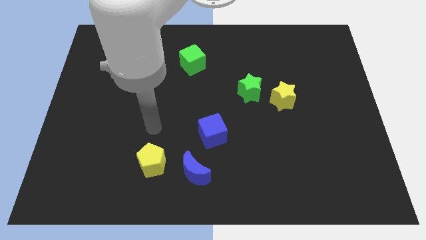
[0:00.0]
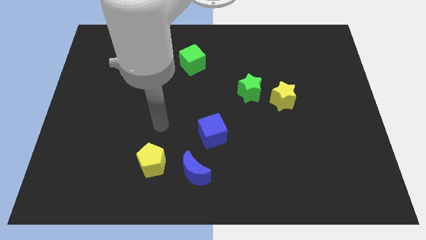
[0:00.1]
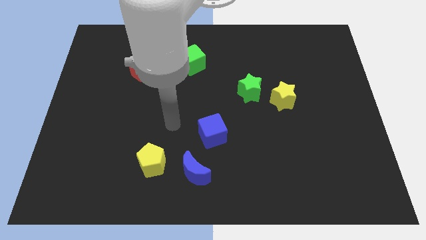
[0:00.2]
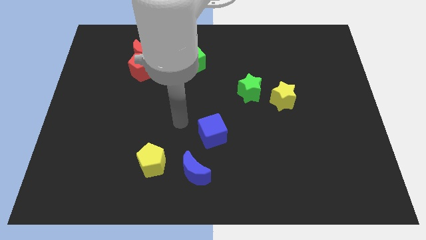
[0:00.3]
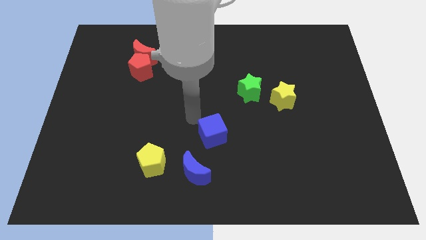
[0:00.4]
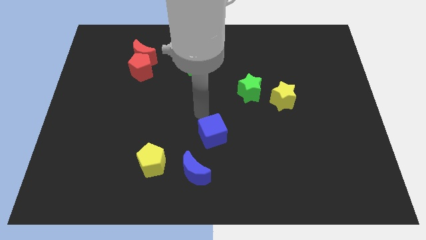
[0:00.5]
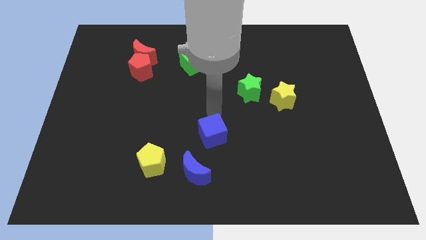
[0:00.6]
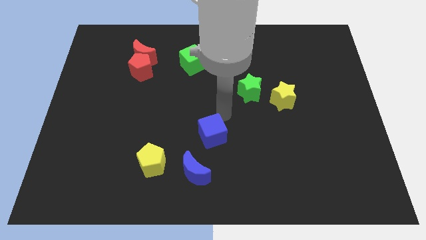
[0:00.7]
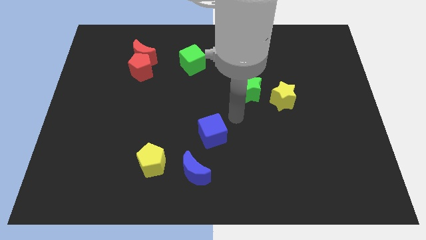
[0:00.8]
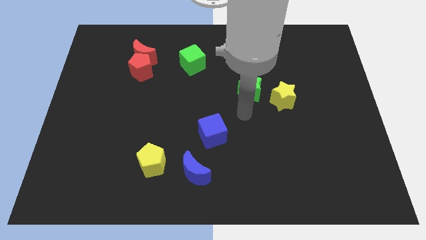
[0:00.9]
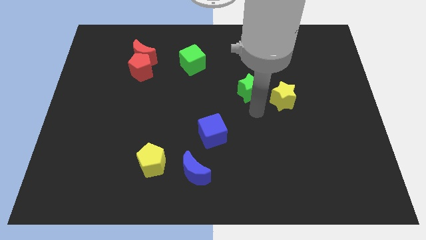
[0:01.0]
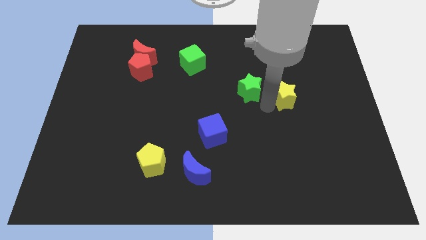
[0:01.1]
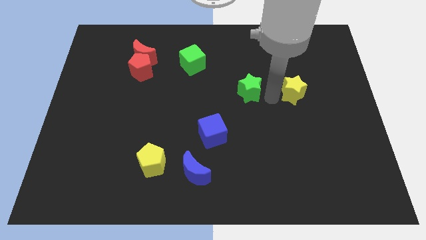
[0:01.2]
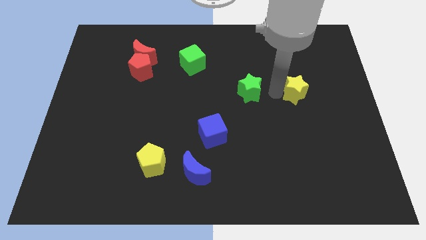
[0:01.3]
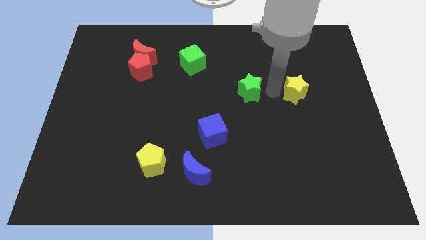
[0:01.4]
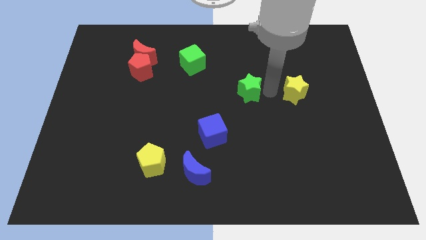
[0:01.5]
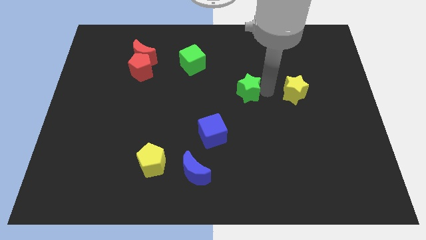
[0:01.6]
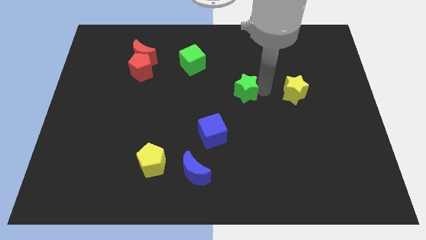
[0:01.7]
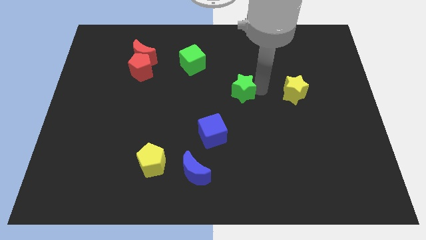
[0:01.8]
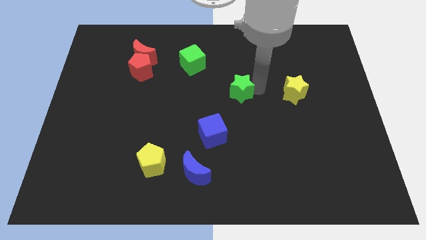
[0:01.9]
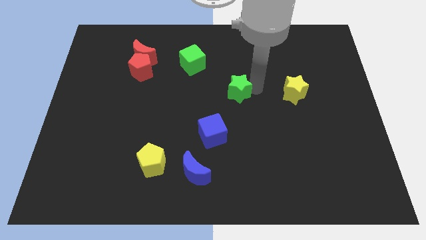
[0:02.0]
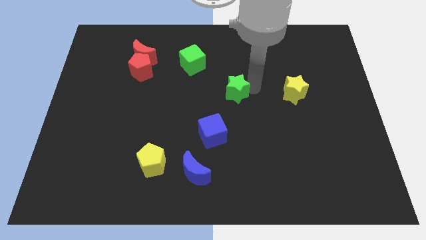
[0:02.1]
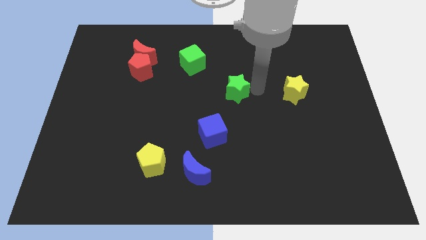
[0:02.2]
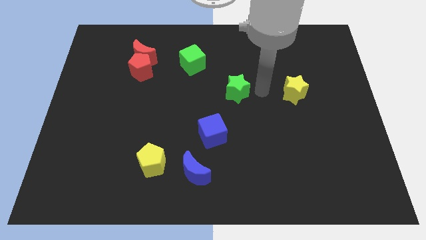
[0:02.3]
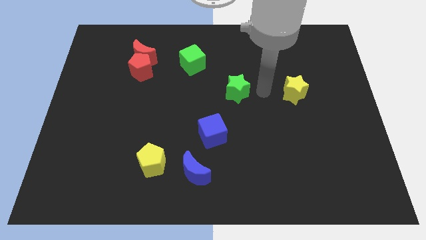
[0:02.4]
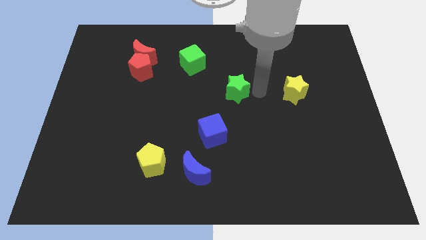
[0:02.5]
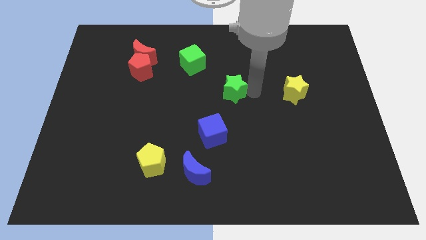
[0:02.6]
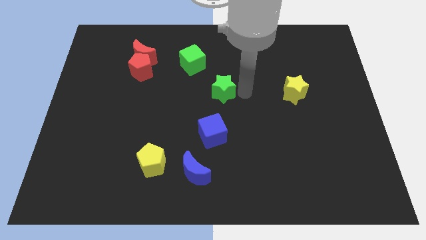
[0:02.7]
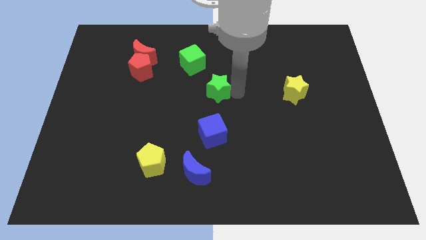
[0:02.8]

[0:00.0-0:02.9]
move the green star to the left somewhat

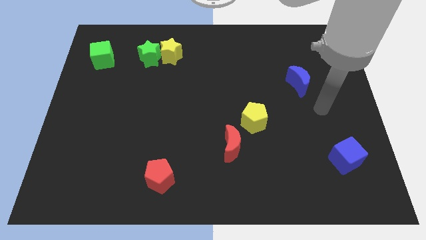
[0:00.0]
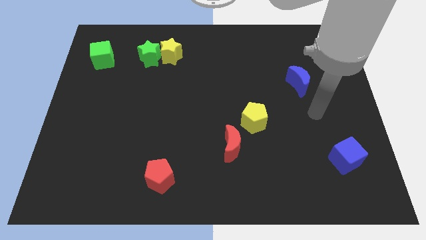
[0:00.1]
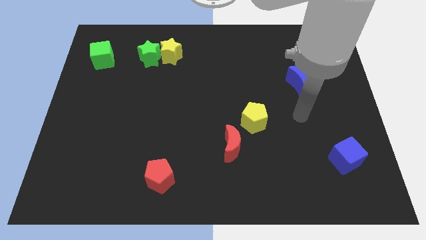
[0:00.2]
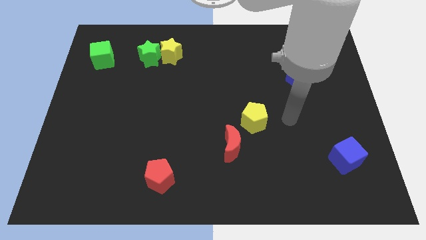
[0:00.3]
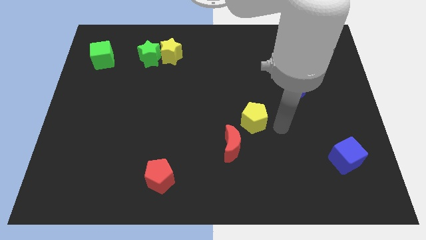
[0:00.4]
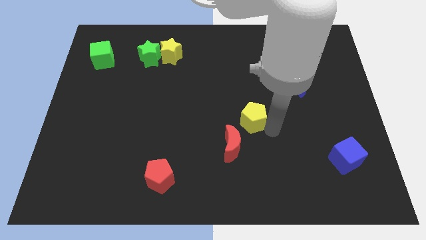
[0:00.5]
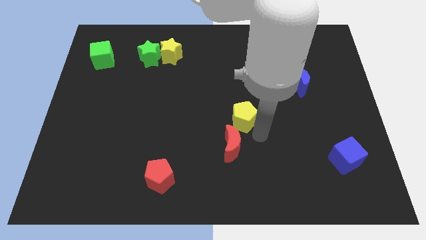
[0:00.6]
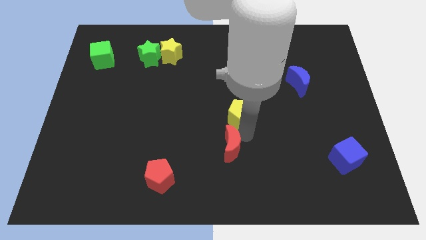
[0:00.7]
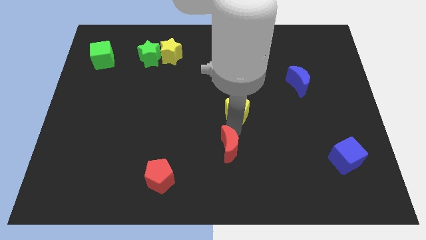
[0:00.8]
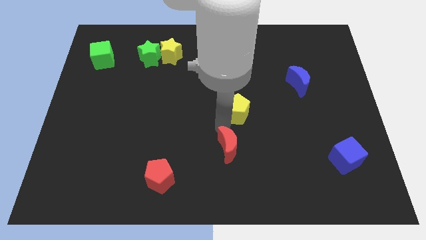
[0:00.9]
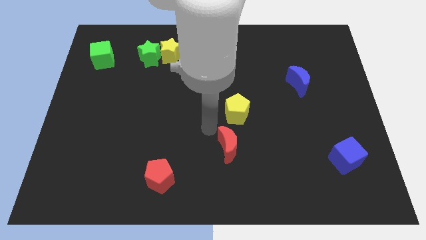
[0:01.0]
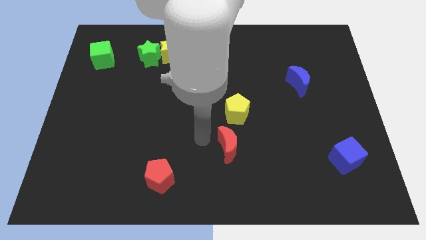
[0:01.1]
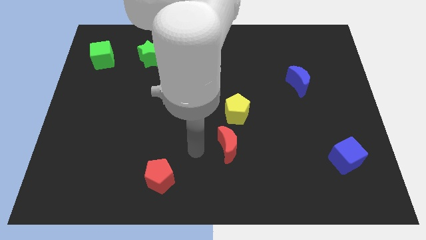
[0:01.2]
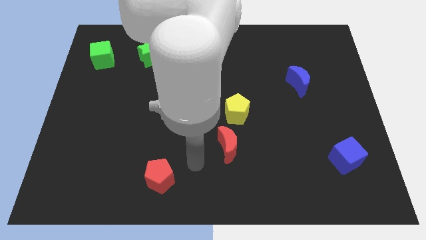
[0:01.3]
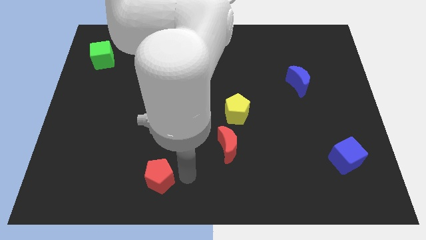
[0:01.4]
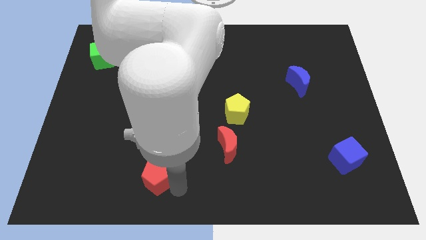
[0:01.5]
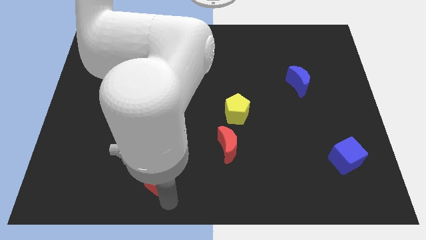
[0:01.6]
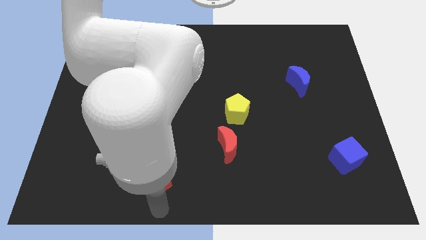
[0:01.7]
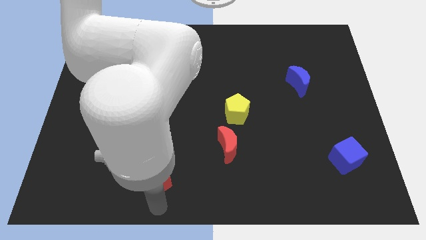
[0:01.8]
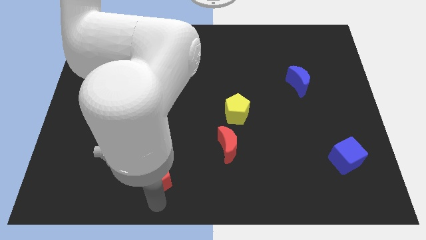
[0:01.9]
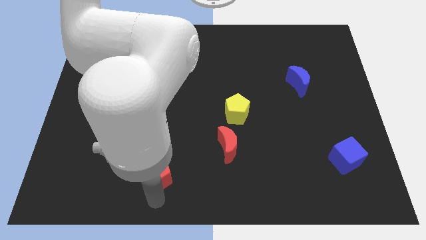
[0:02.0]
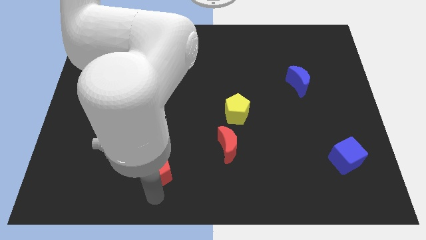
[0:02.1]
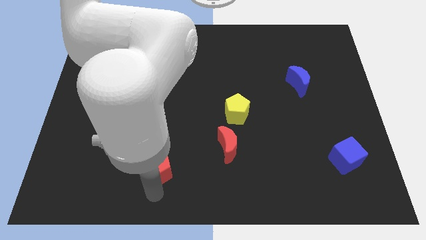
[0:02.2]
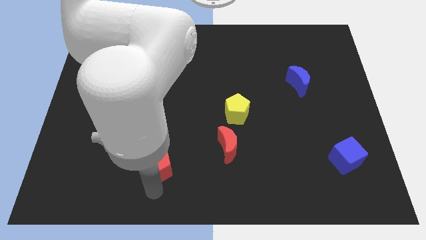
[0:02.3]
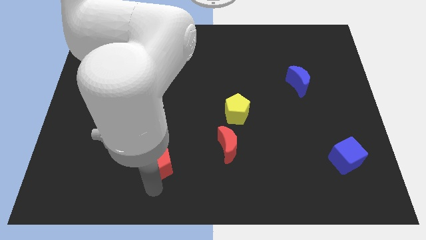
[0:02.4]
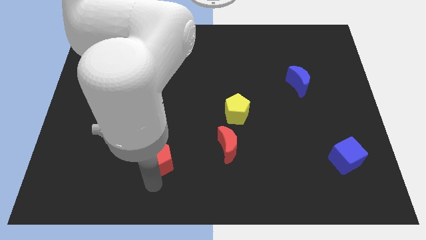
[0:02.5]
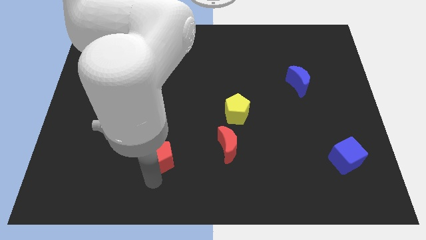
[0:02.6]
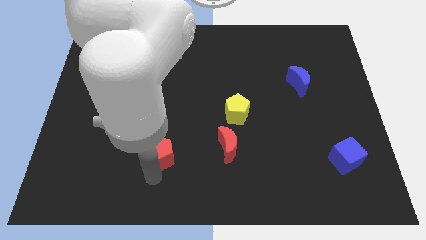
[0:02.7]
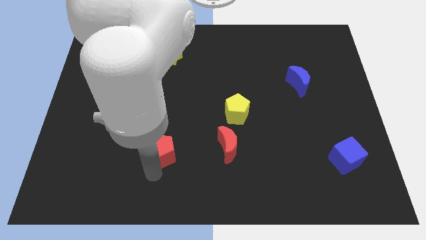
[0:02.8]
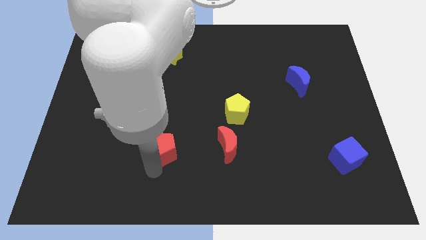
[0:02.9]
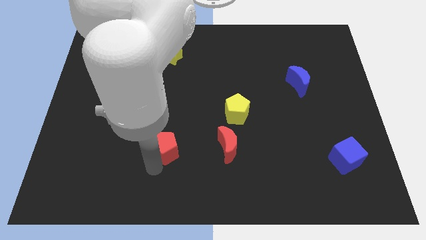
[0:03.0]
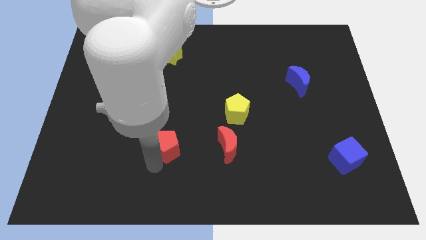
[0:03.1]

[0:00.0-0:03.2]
push the red pentagon up somewhat

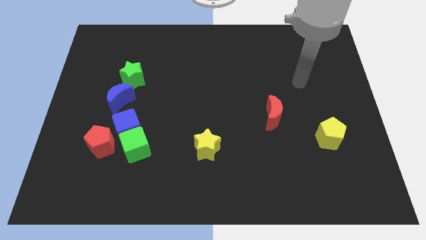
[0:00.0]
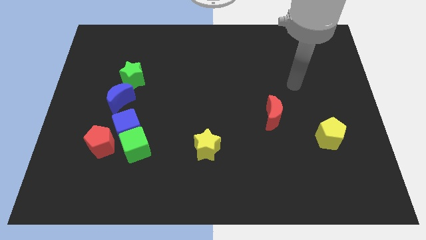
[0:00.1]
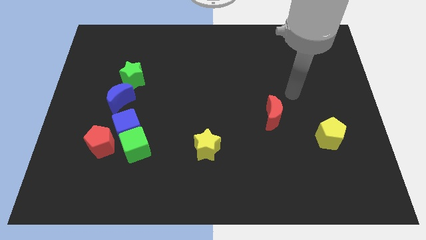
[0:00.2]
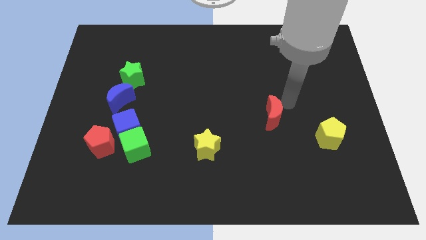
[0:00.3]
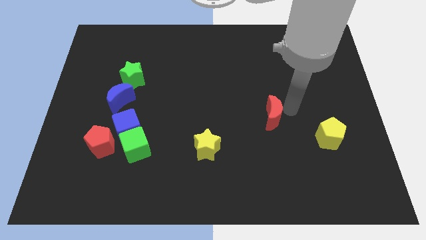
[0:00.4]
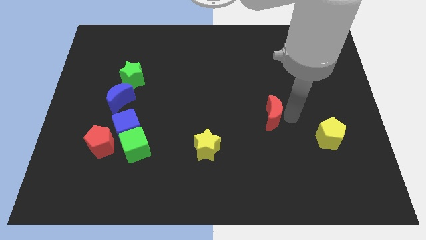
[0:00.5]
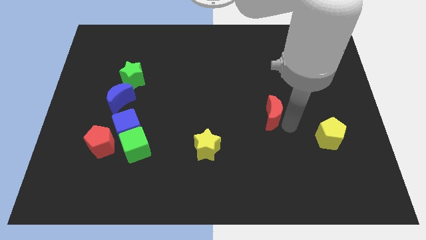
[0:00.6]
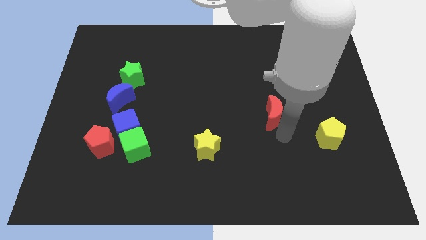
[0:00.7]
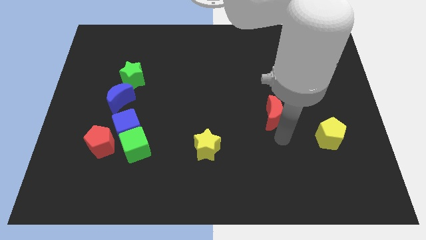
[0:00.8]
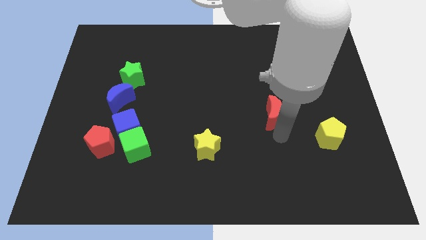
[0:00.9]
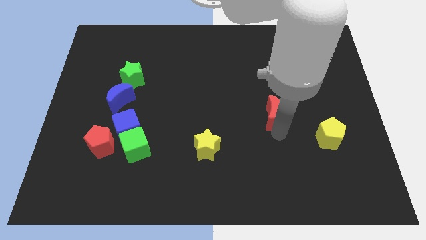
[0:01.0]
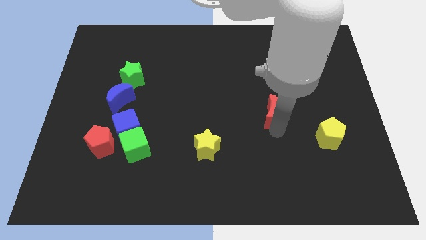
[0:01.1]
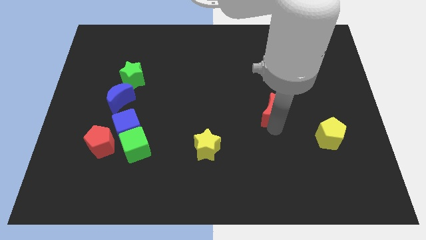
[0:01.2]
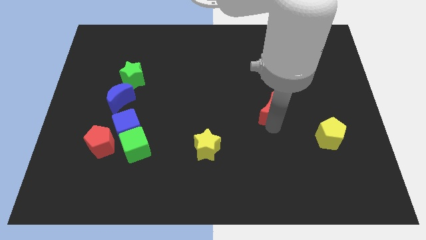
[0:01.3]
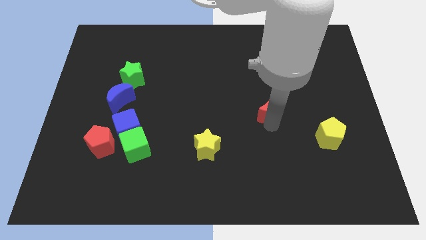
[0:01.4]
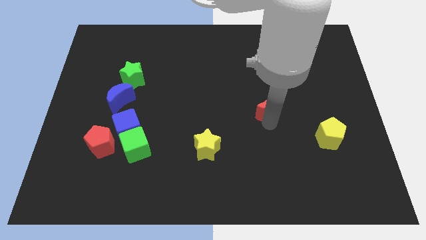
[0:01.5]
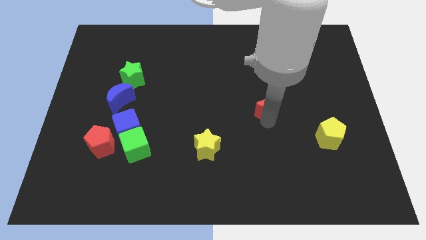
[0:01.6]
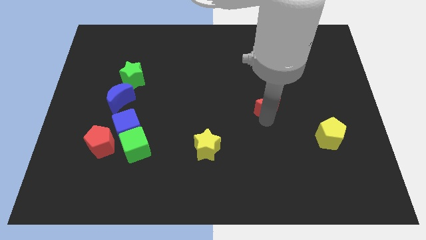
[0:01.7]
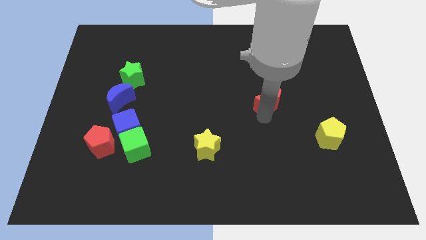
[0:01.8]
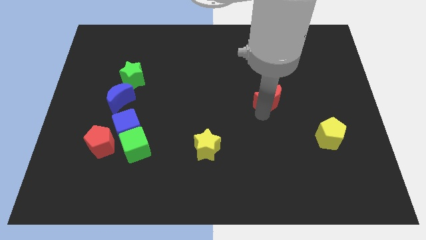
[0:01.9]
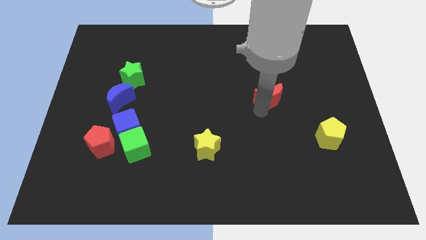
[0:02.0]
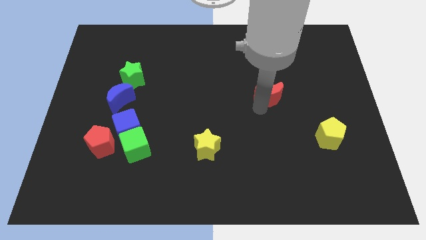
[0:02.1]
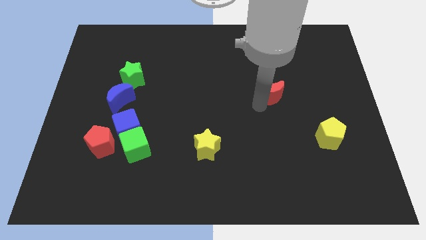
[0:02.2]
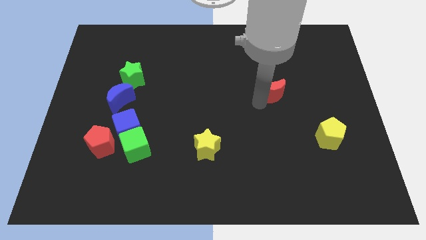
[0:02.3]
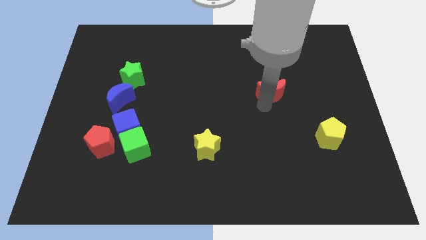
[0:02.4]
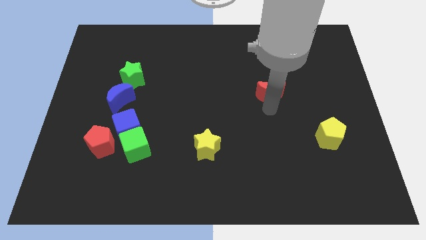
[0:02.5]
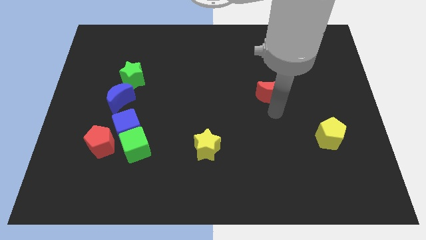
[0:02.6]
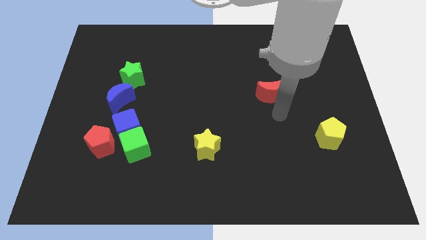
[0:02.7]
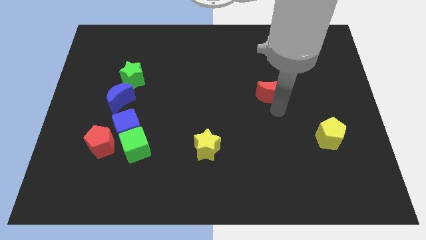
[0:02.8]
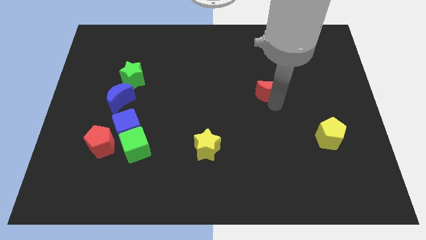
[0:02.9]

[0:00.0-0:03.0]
push the red moon a bit upwards
